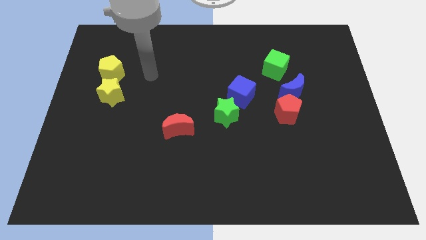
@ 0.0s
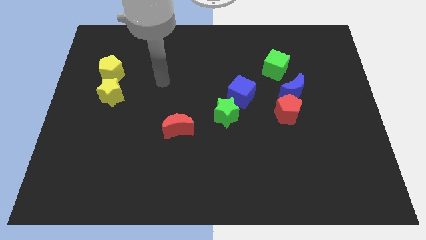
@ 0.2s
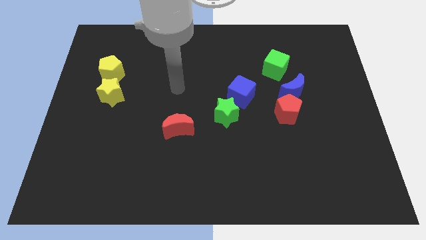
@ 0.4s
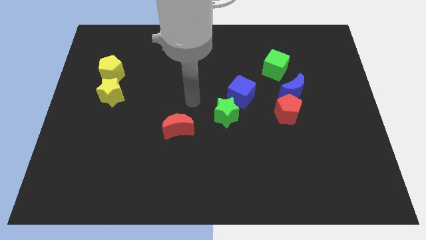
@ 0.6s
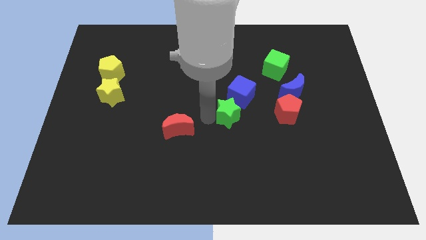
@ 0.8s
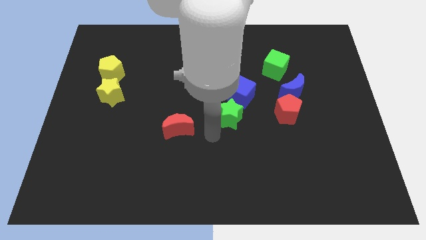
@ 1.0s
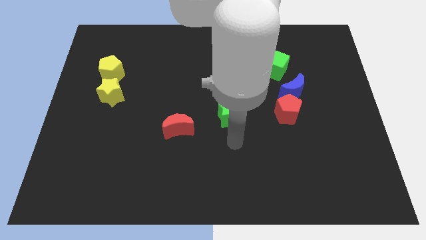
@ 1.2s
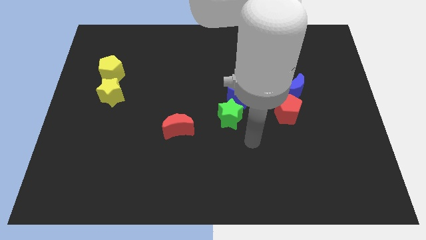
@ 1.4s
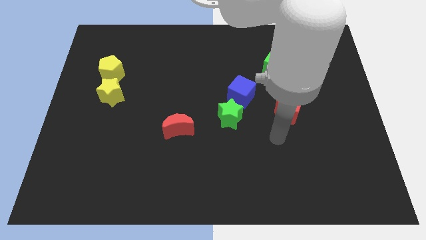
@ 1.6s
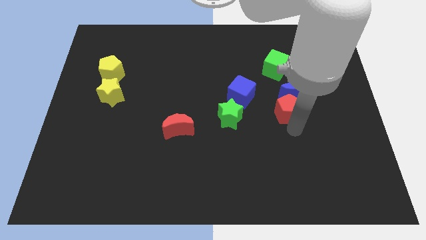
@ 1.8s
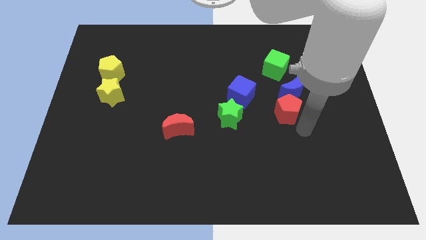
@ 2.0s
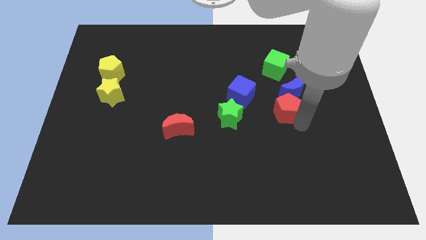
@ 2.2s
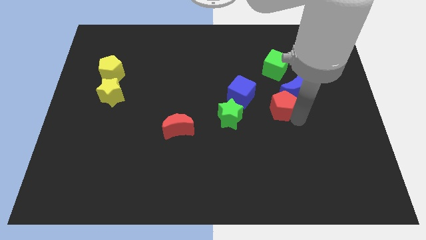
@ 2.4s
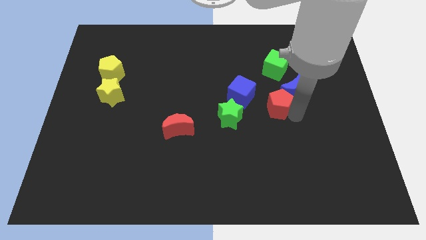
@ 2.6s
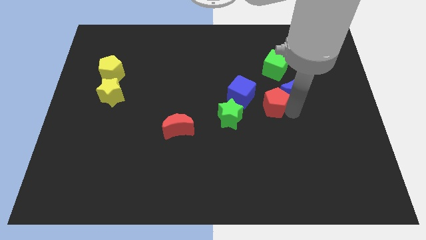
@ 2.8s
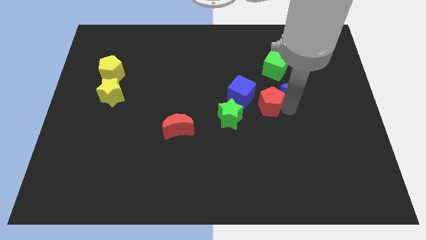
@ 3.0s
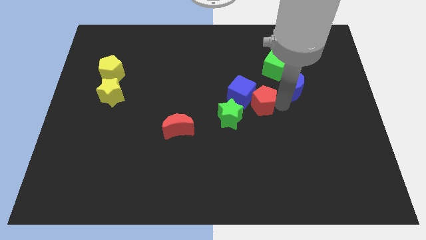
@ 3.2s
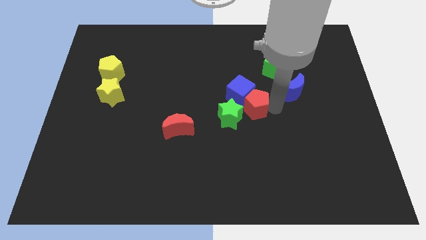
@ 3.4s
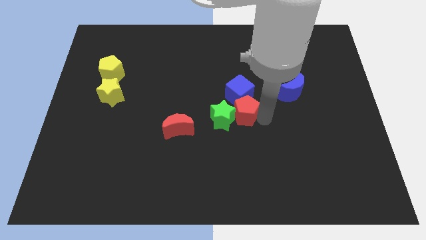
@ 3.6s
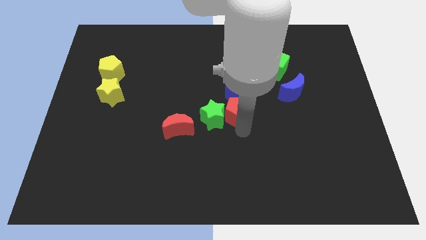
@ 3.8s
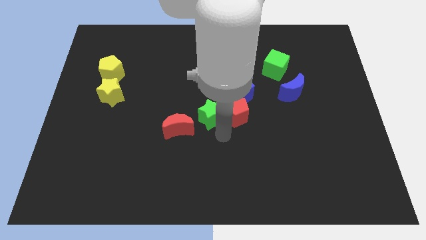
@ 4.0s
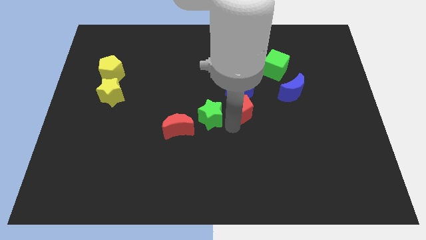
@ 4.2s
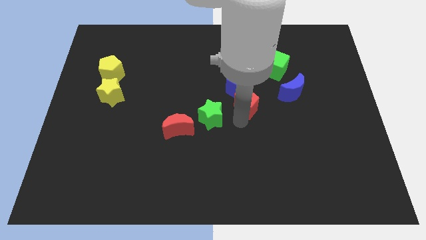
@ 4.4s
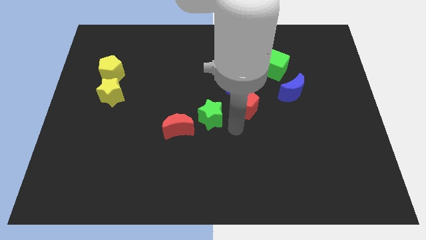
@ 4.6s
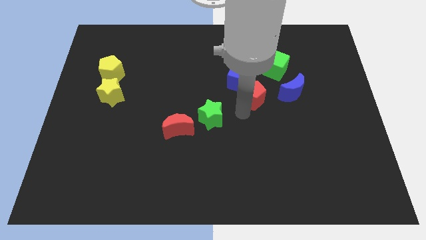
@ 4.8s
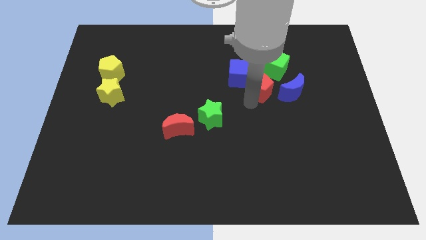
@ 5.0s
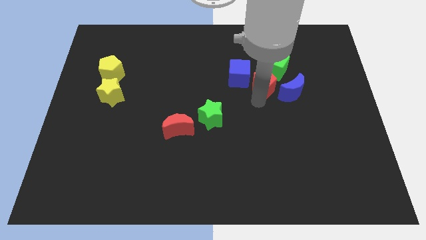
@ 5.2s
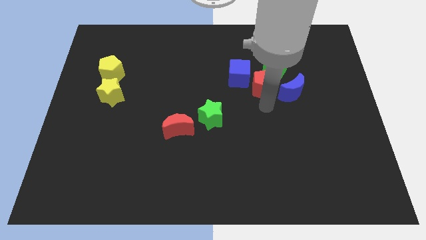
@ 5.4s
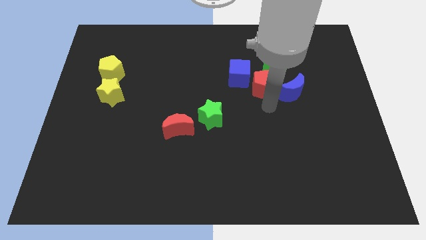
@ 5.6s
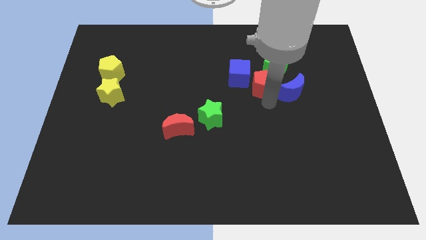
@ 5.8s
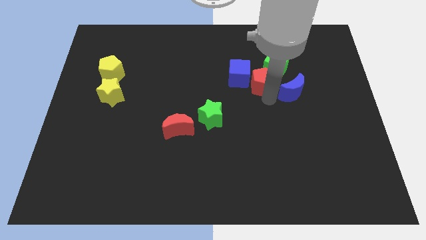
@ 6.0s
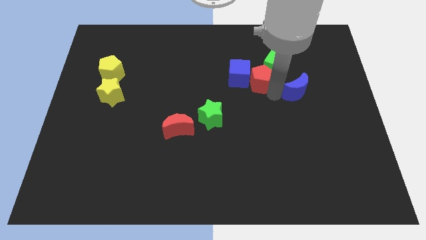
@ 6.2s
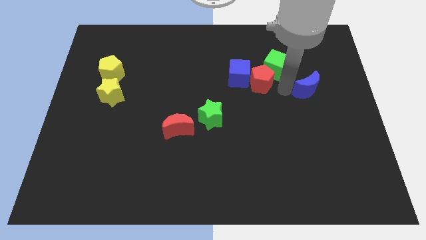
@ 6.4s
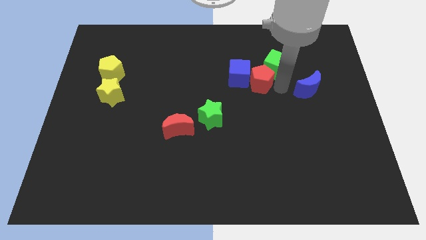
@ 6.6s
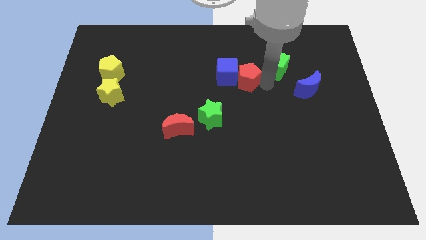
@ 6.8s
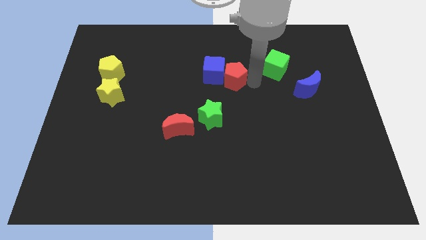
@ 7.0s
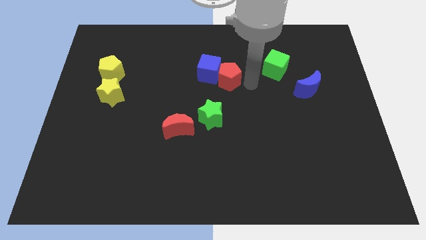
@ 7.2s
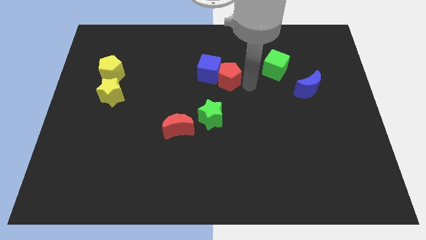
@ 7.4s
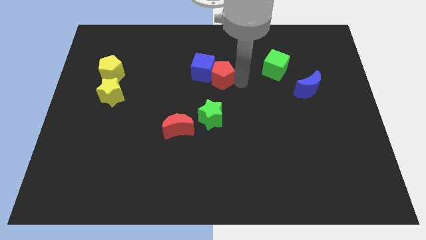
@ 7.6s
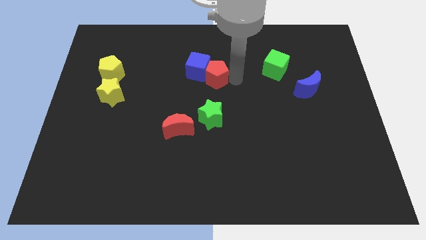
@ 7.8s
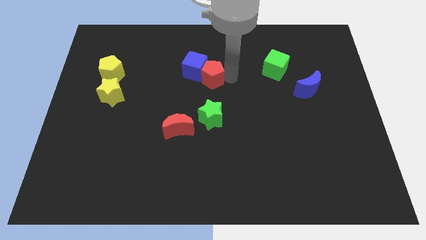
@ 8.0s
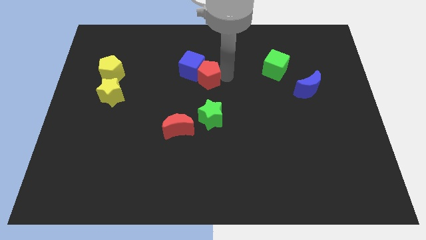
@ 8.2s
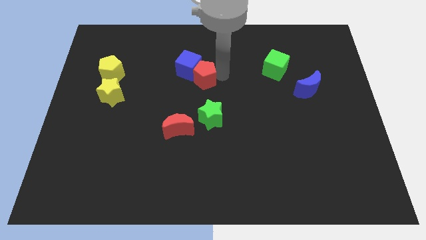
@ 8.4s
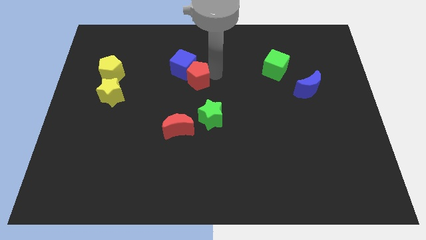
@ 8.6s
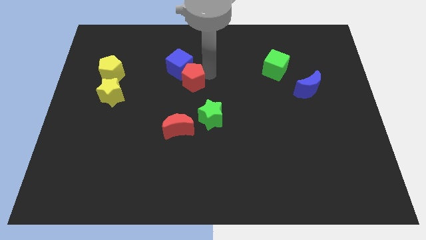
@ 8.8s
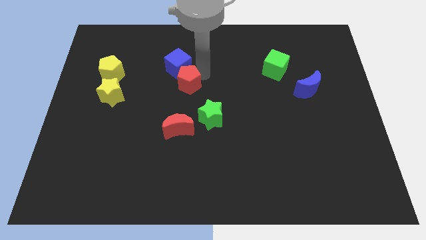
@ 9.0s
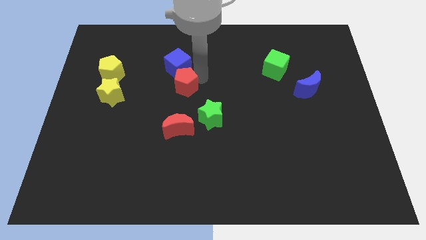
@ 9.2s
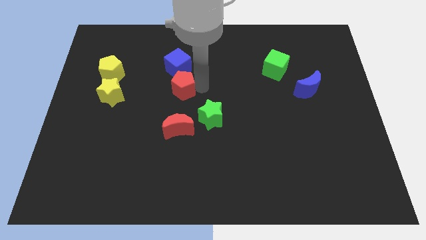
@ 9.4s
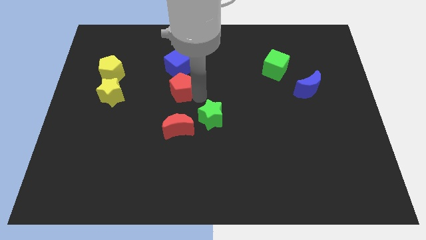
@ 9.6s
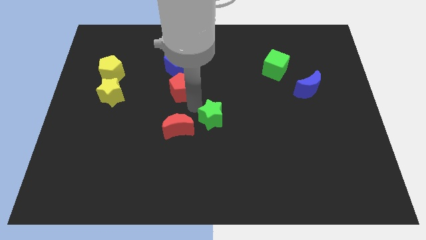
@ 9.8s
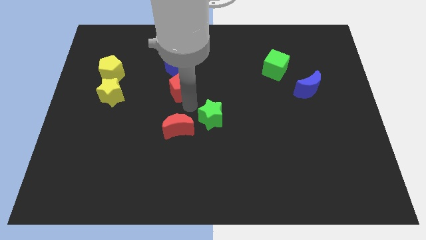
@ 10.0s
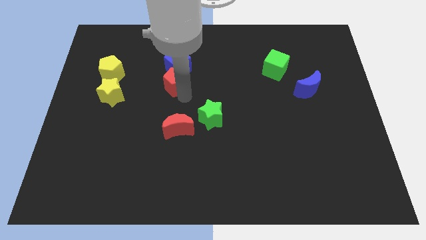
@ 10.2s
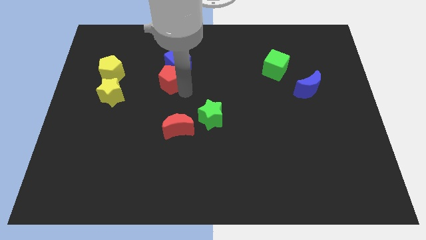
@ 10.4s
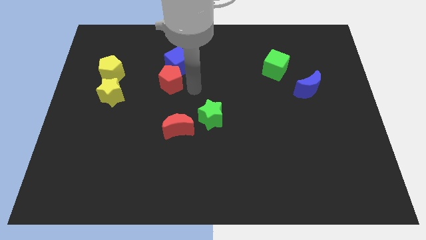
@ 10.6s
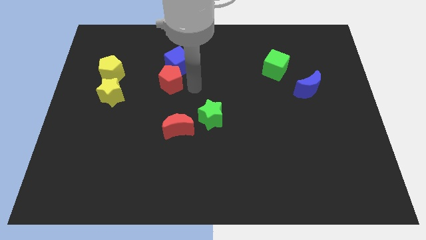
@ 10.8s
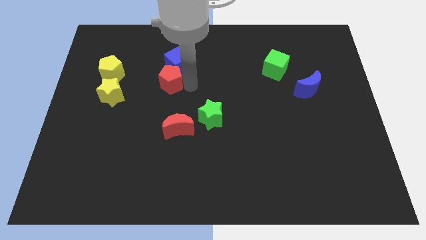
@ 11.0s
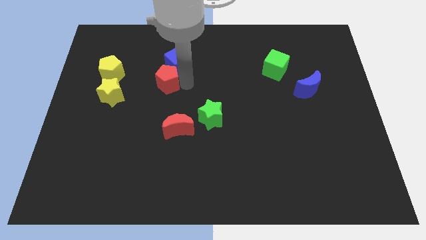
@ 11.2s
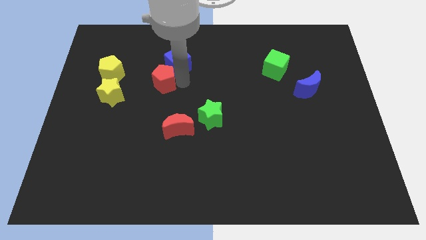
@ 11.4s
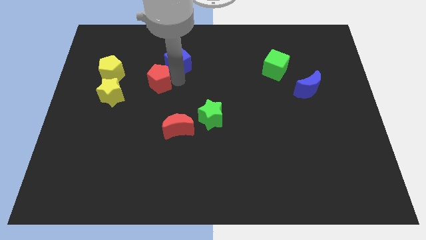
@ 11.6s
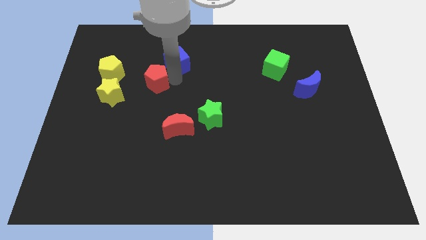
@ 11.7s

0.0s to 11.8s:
put the red pentagon diagonally up and to the right of the yellow star

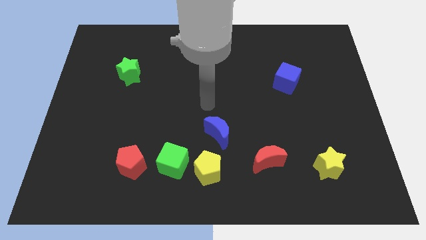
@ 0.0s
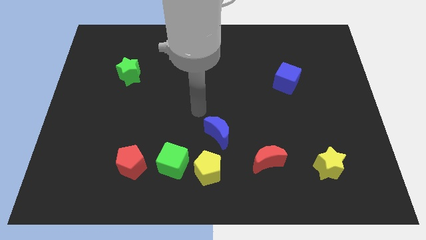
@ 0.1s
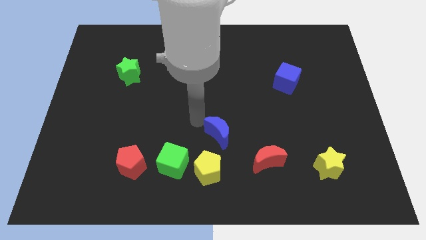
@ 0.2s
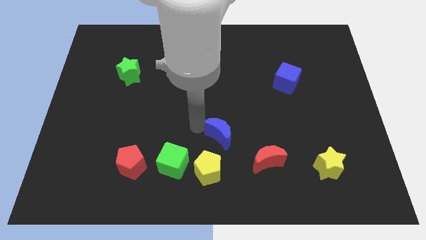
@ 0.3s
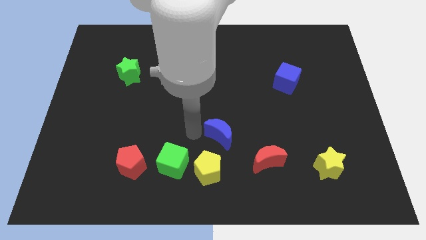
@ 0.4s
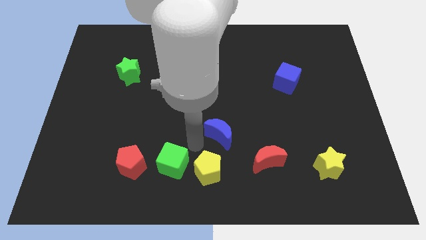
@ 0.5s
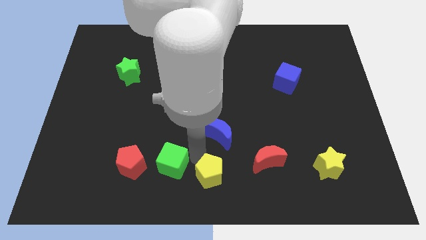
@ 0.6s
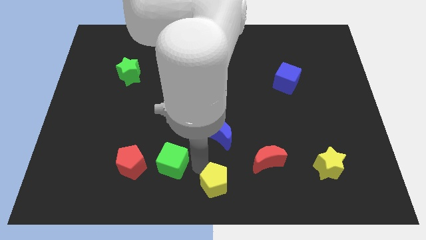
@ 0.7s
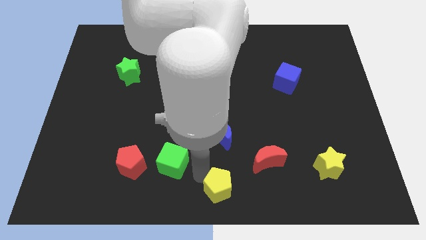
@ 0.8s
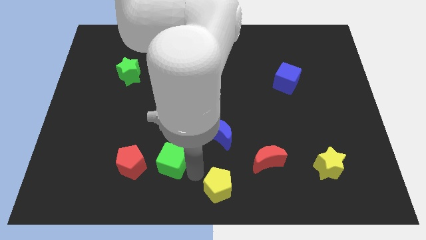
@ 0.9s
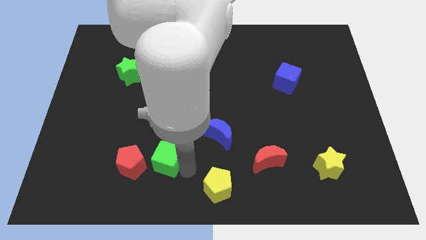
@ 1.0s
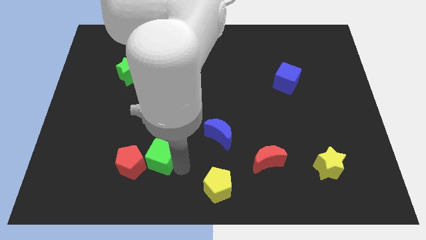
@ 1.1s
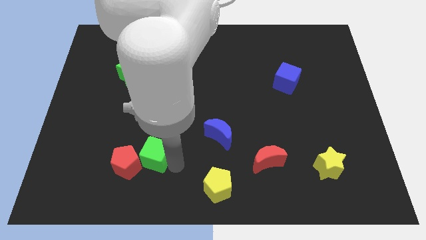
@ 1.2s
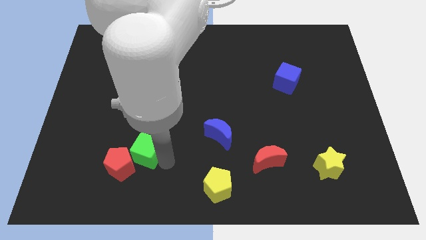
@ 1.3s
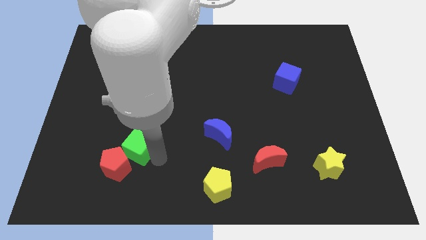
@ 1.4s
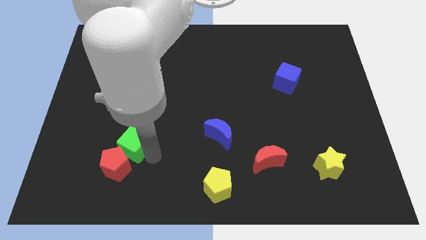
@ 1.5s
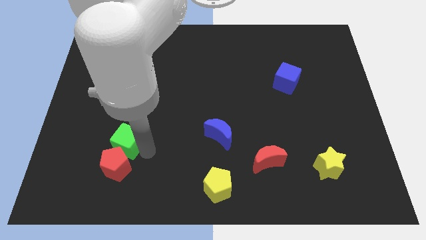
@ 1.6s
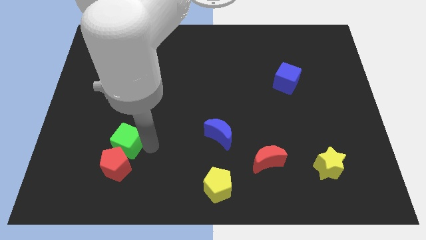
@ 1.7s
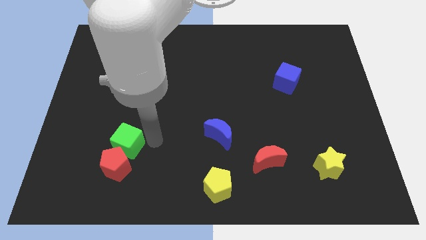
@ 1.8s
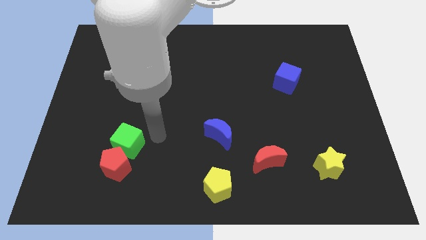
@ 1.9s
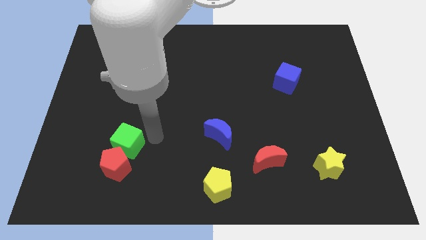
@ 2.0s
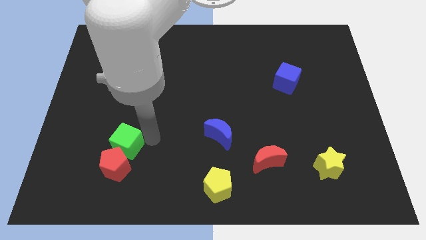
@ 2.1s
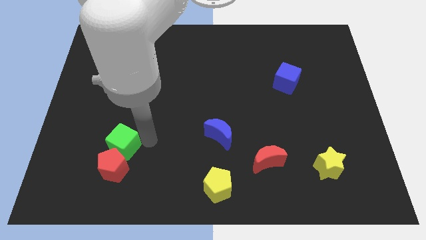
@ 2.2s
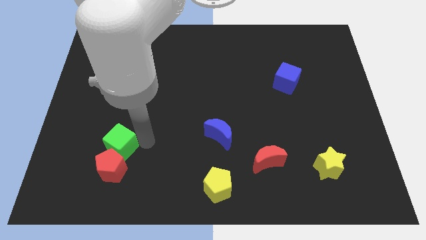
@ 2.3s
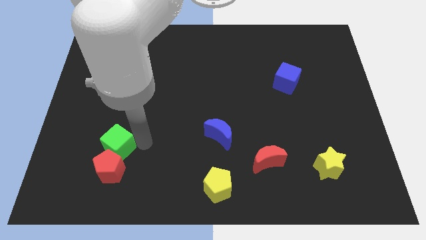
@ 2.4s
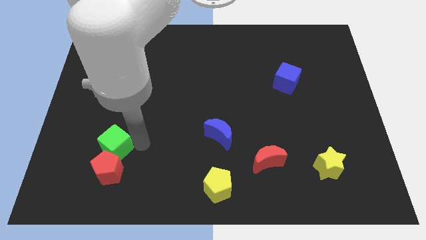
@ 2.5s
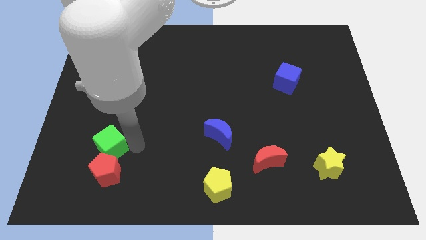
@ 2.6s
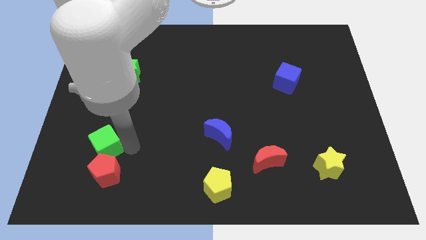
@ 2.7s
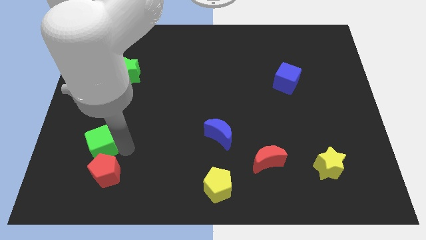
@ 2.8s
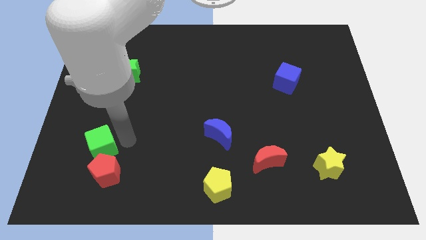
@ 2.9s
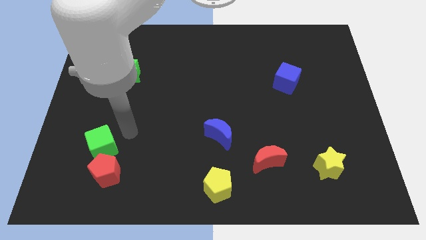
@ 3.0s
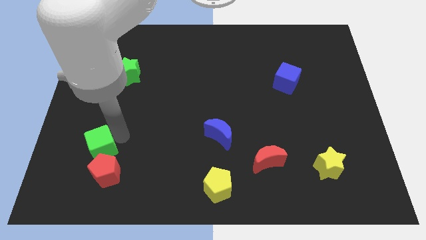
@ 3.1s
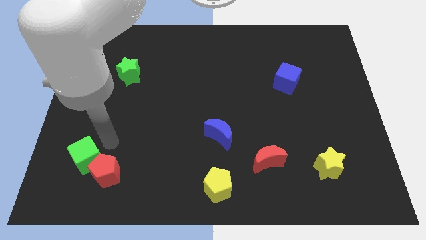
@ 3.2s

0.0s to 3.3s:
push the green cube just left of the red pentagon
